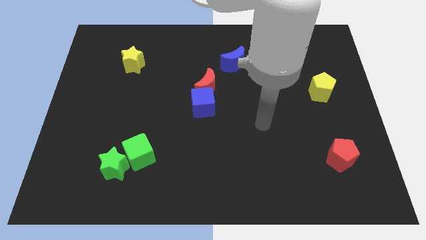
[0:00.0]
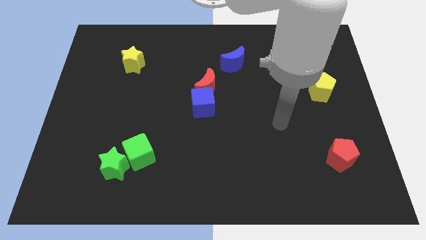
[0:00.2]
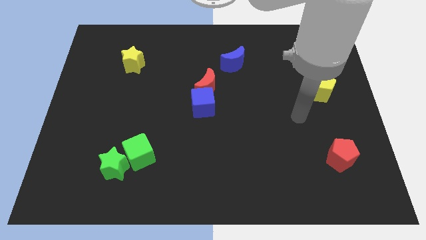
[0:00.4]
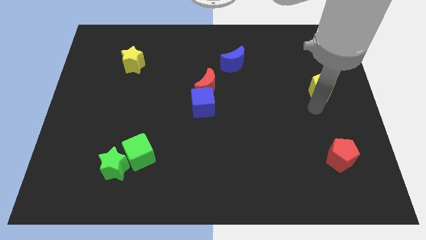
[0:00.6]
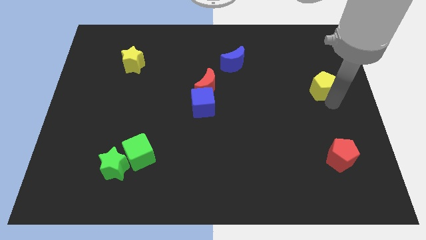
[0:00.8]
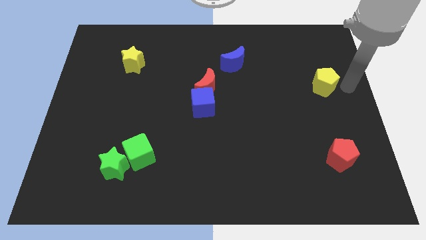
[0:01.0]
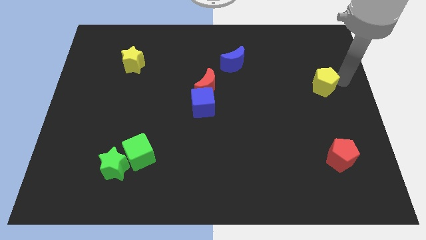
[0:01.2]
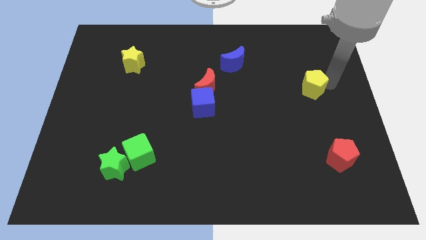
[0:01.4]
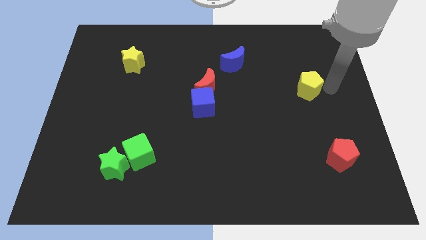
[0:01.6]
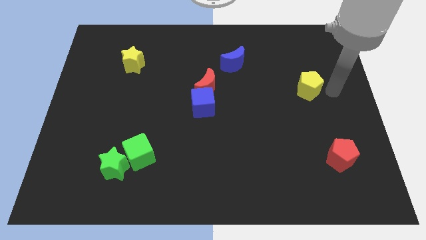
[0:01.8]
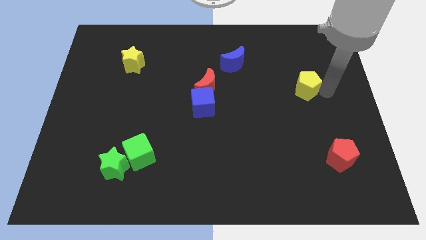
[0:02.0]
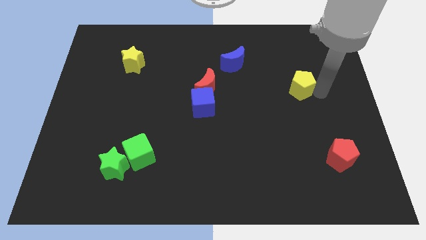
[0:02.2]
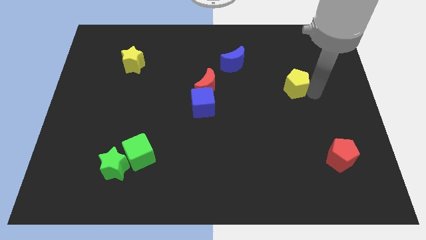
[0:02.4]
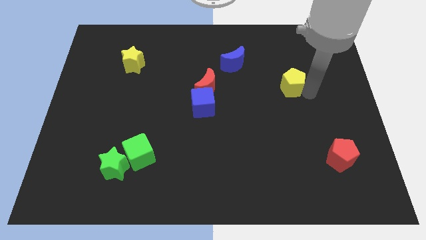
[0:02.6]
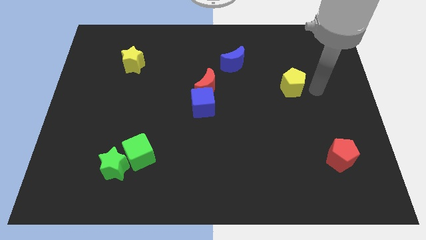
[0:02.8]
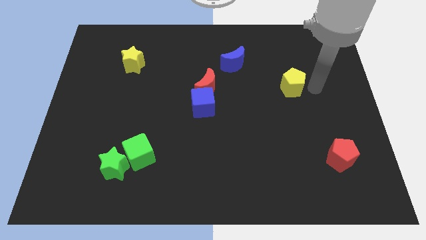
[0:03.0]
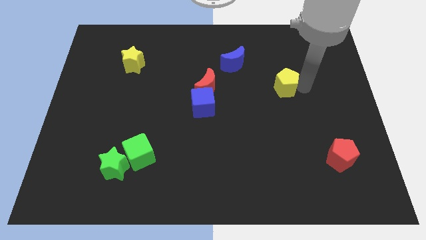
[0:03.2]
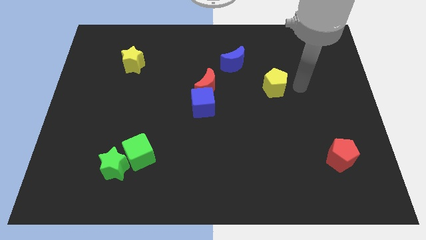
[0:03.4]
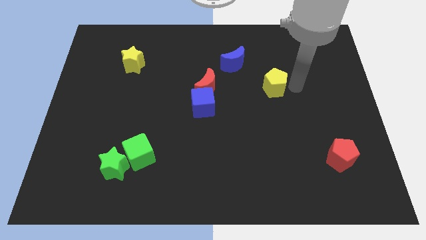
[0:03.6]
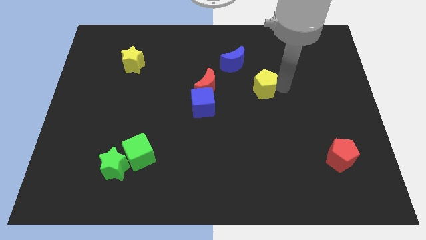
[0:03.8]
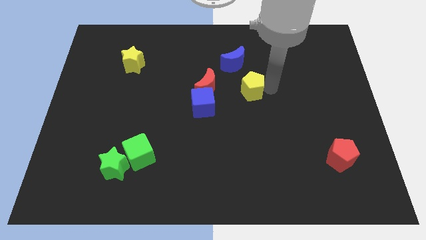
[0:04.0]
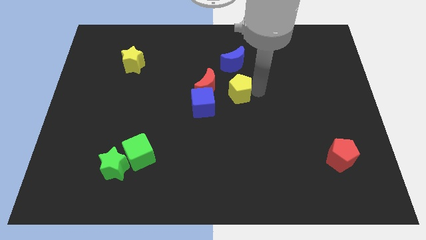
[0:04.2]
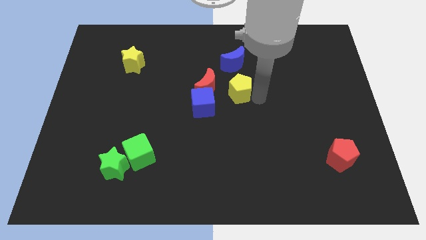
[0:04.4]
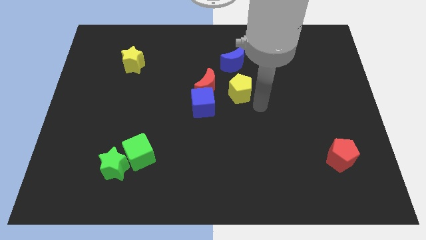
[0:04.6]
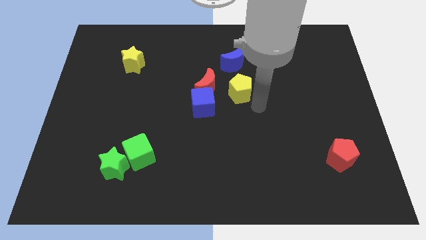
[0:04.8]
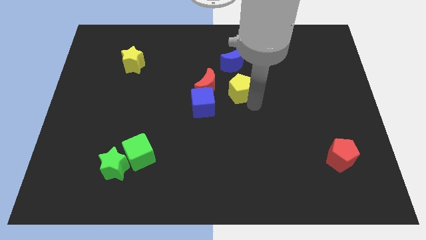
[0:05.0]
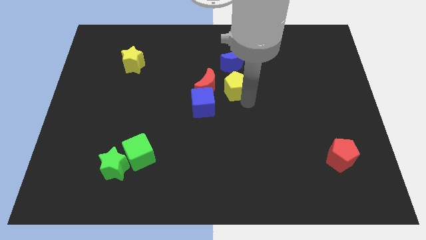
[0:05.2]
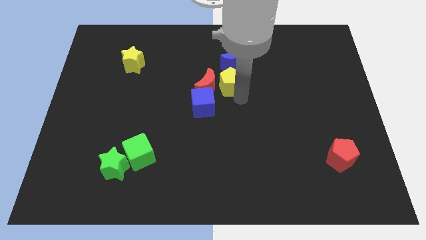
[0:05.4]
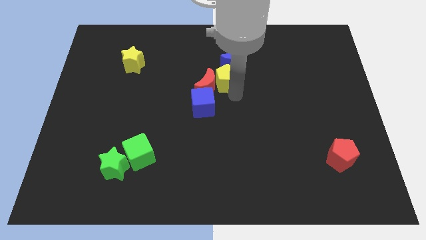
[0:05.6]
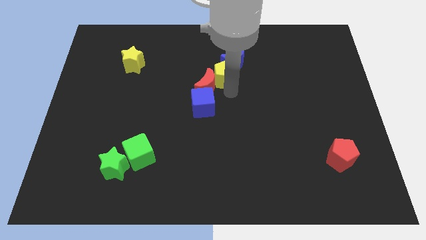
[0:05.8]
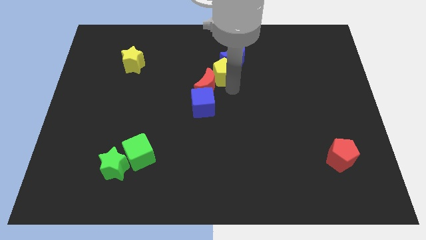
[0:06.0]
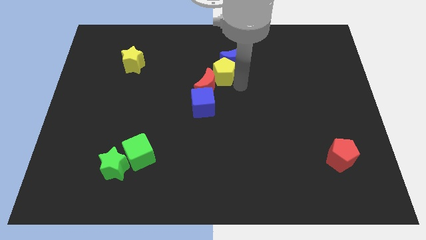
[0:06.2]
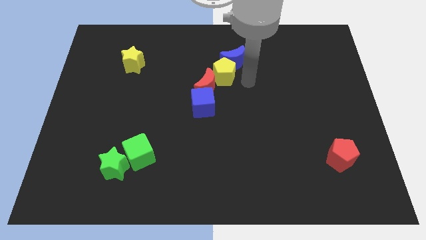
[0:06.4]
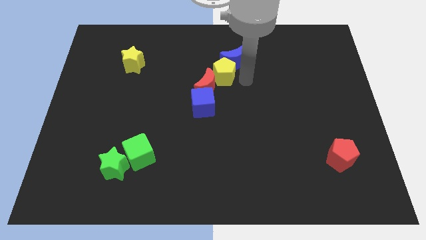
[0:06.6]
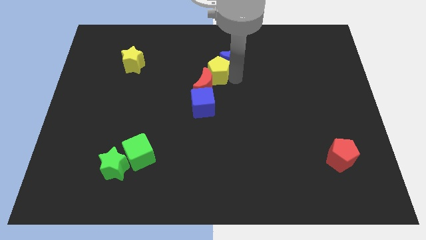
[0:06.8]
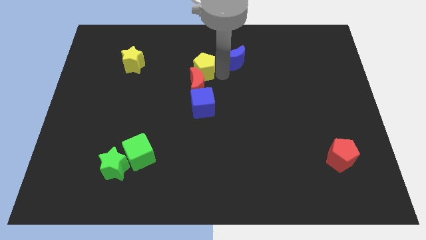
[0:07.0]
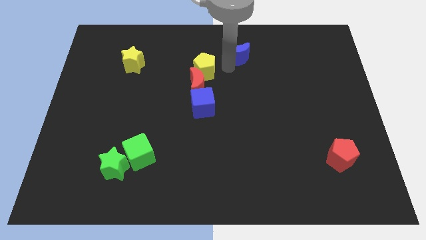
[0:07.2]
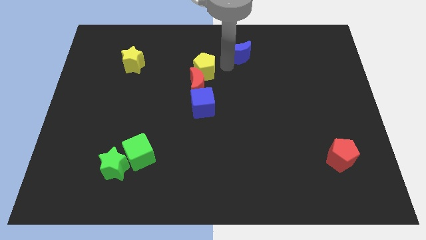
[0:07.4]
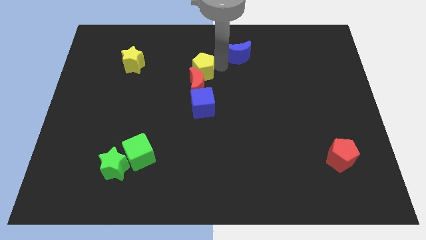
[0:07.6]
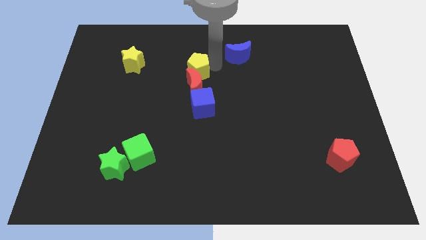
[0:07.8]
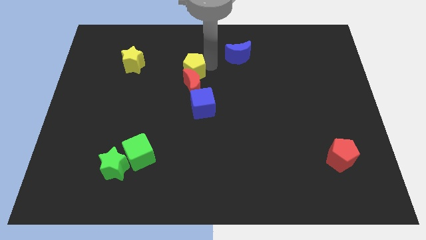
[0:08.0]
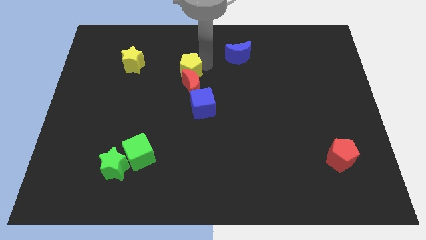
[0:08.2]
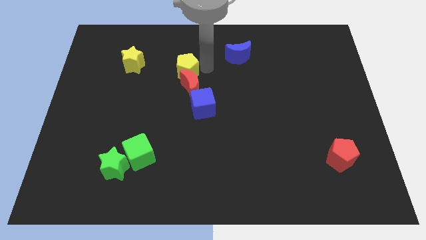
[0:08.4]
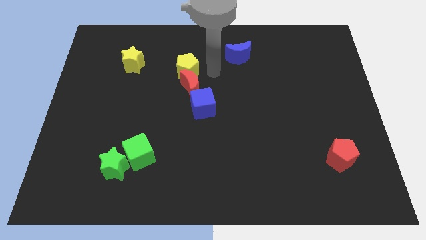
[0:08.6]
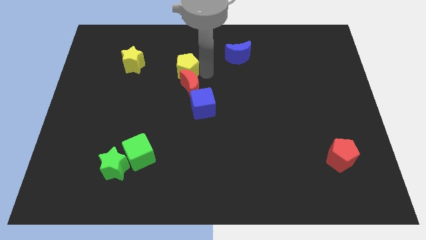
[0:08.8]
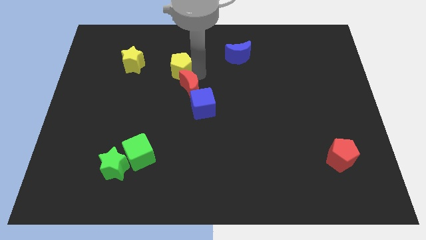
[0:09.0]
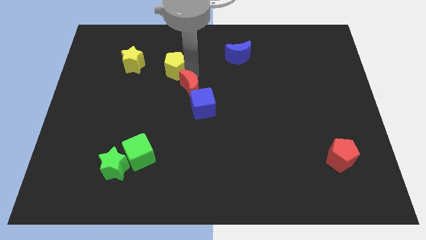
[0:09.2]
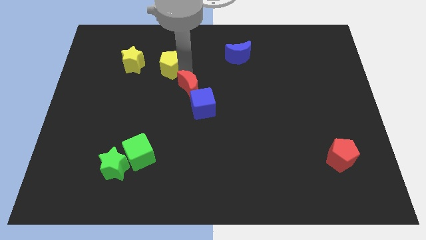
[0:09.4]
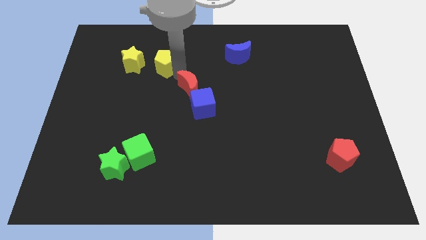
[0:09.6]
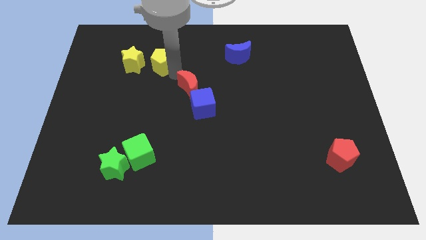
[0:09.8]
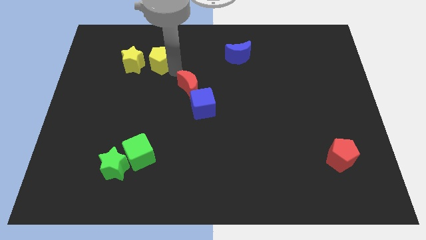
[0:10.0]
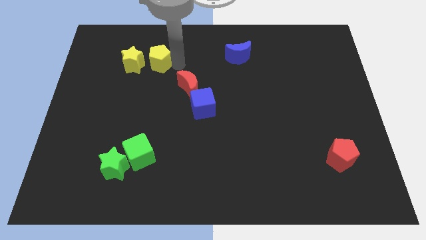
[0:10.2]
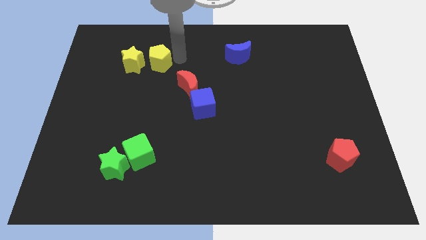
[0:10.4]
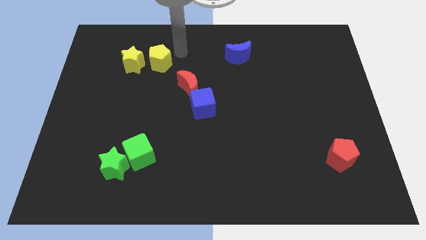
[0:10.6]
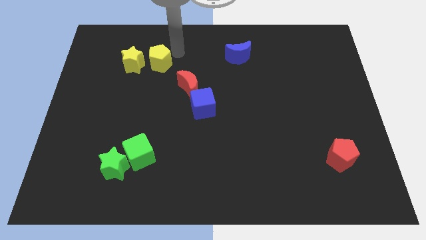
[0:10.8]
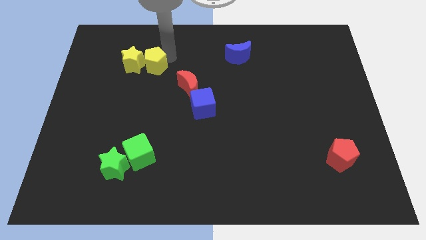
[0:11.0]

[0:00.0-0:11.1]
push the yellow pentagon close to the yellow star

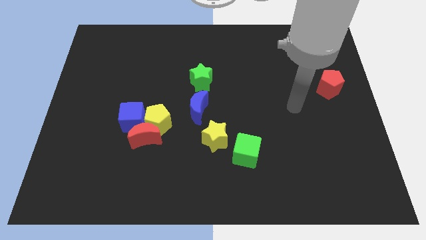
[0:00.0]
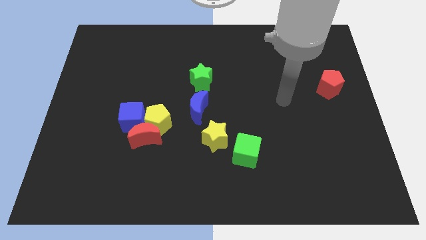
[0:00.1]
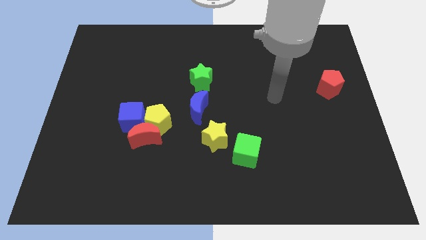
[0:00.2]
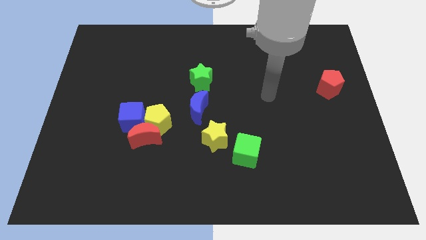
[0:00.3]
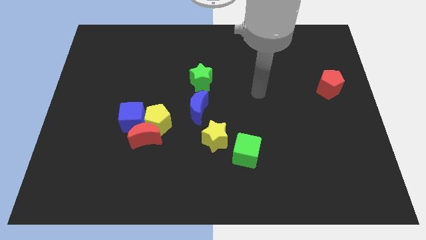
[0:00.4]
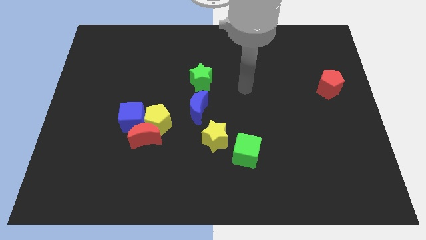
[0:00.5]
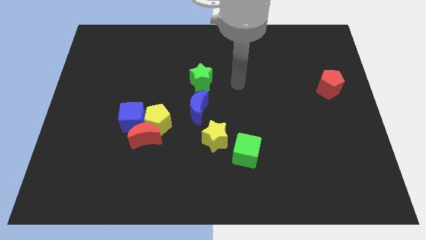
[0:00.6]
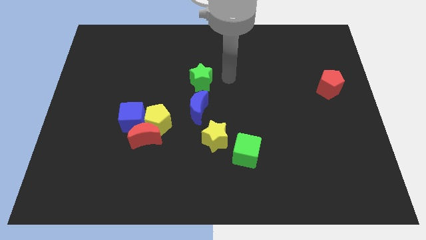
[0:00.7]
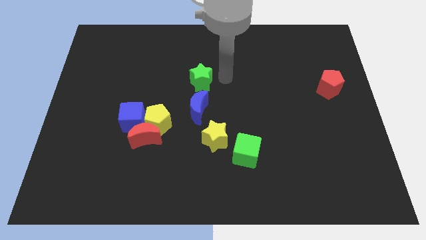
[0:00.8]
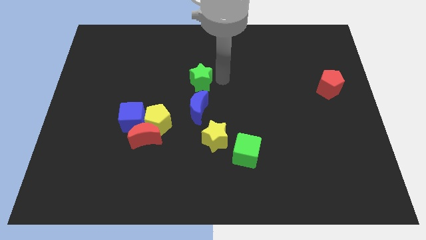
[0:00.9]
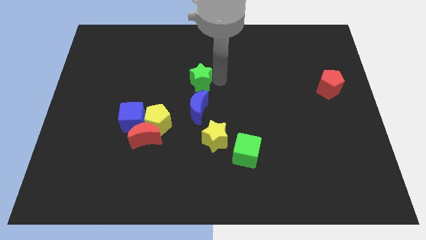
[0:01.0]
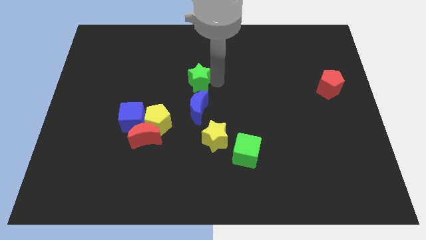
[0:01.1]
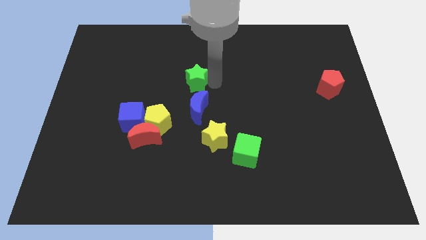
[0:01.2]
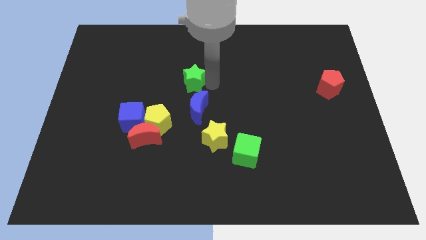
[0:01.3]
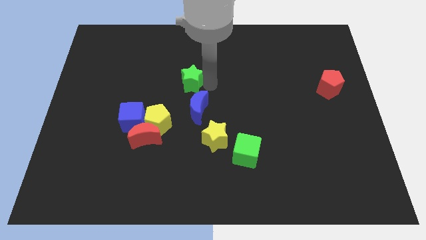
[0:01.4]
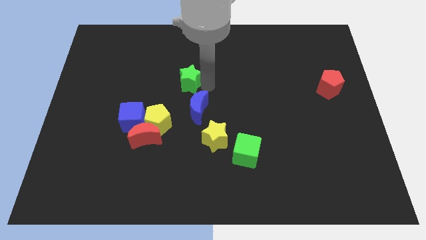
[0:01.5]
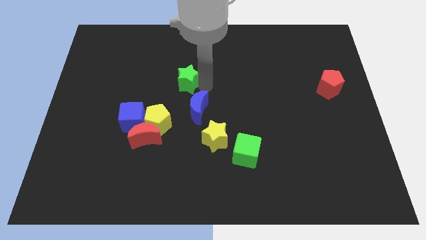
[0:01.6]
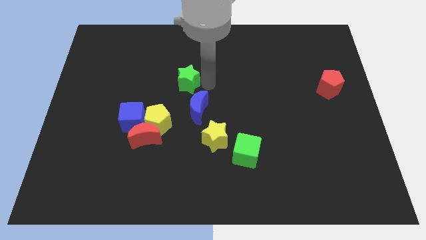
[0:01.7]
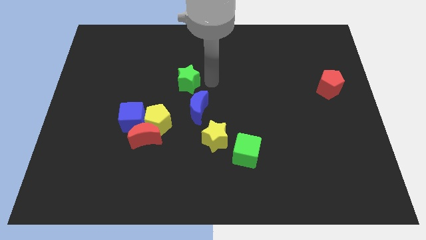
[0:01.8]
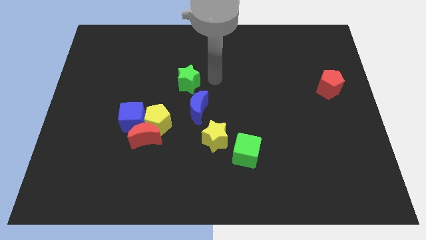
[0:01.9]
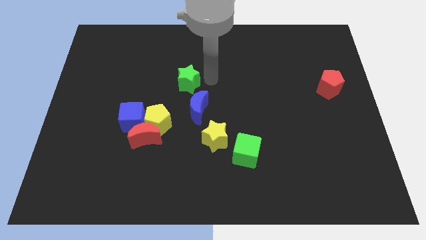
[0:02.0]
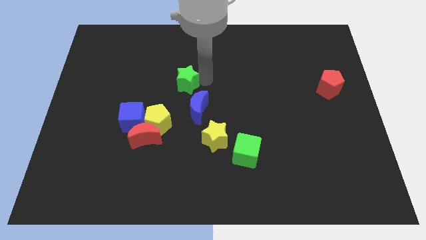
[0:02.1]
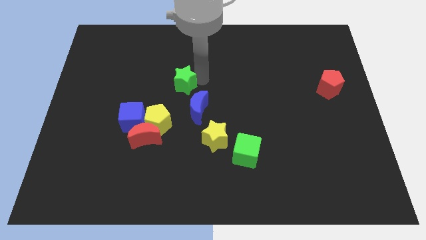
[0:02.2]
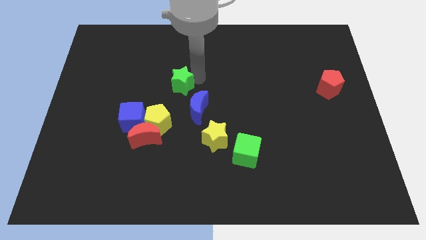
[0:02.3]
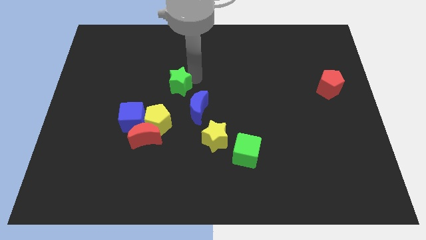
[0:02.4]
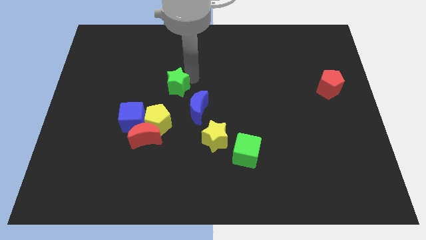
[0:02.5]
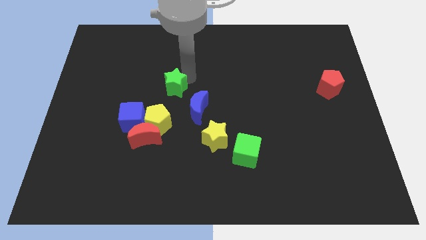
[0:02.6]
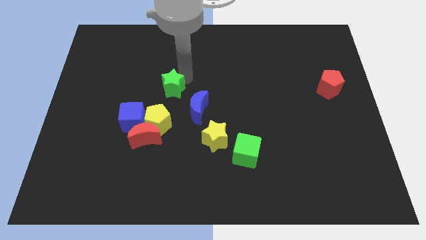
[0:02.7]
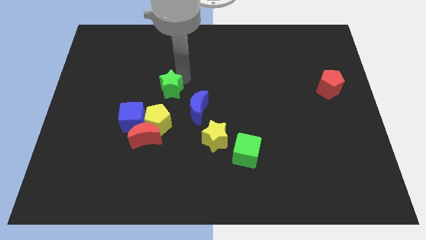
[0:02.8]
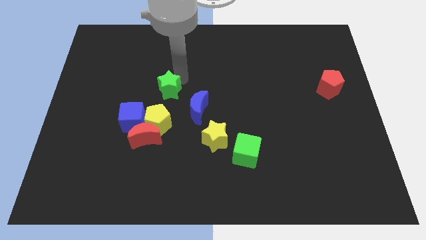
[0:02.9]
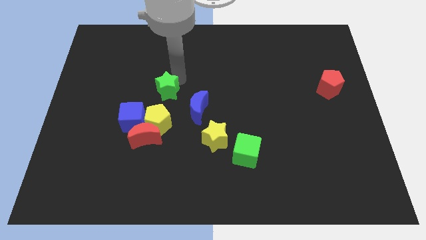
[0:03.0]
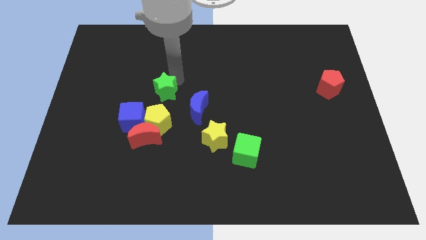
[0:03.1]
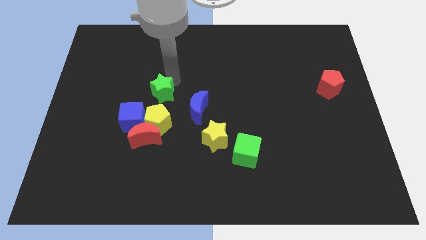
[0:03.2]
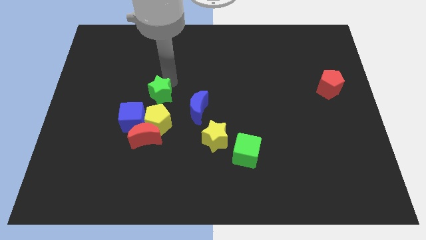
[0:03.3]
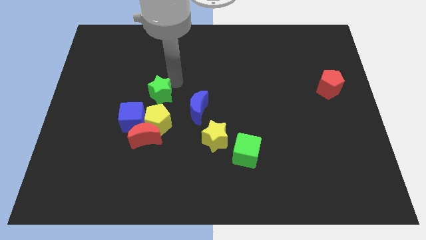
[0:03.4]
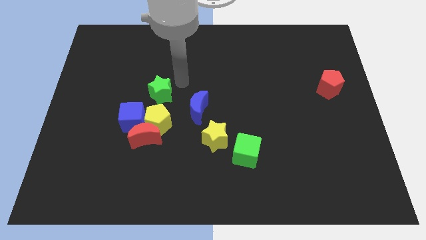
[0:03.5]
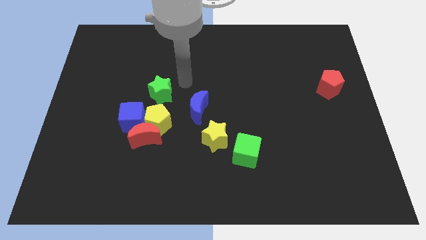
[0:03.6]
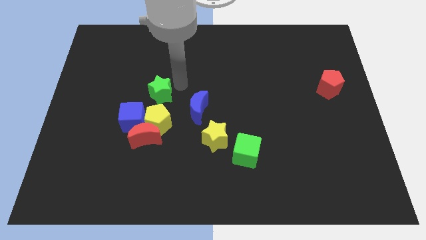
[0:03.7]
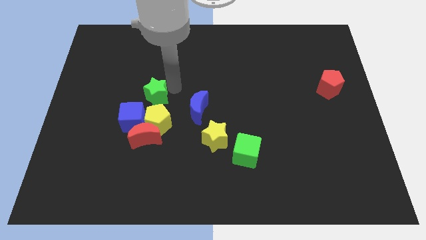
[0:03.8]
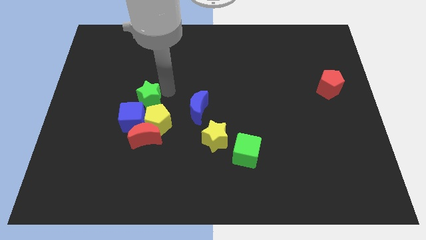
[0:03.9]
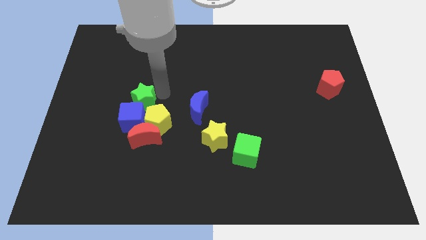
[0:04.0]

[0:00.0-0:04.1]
put the green star next to the blue cube
